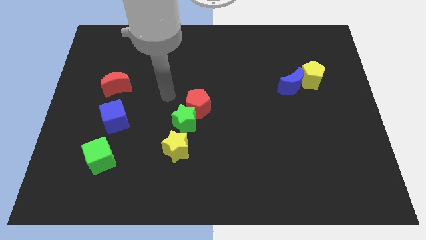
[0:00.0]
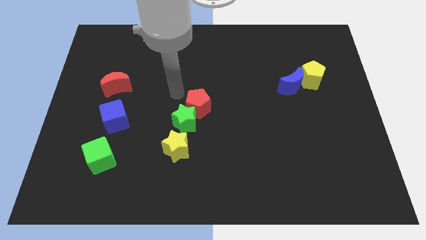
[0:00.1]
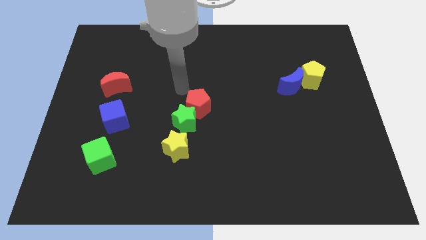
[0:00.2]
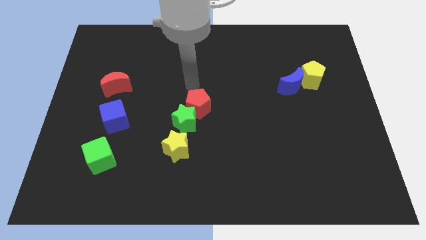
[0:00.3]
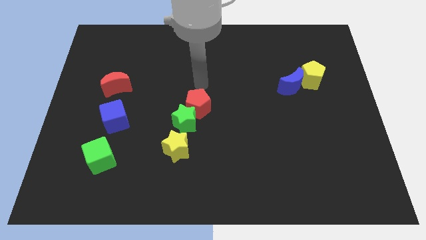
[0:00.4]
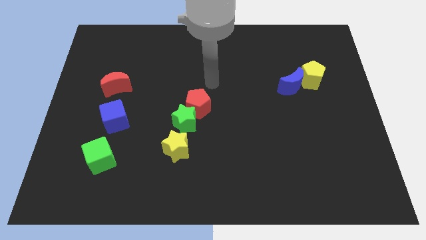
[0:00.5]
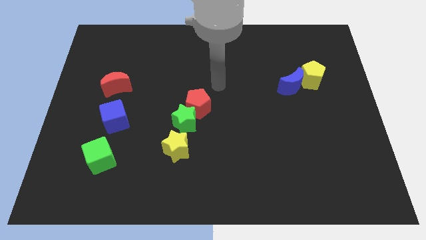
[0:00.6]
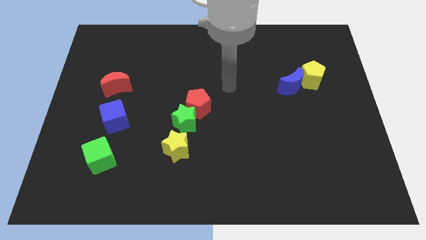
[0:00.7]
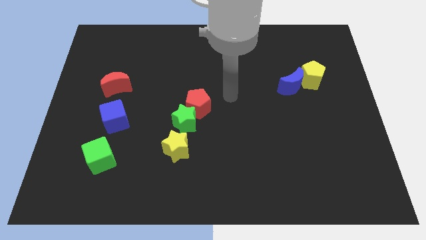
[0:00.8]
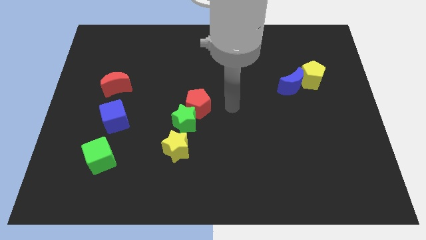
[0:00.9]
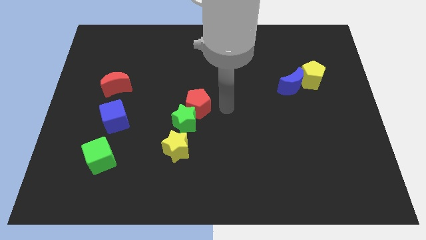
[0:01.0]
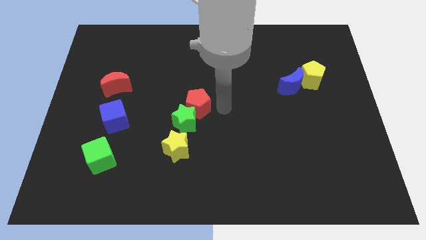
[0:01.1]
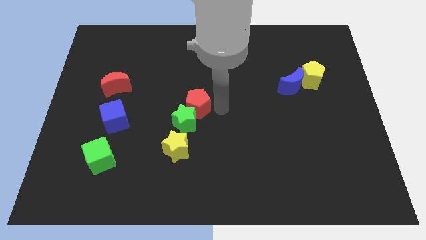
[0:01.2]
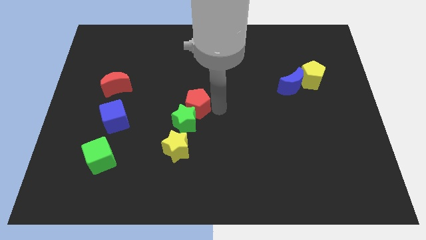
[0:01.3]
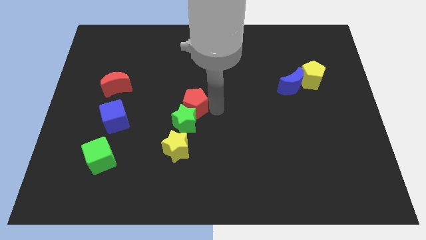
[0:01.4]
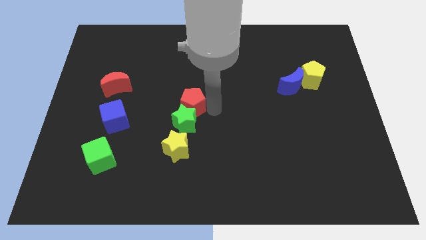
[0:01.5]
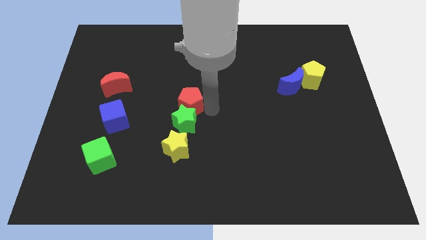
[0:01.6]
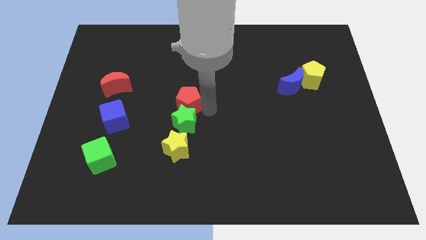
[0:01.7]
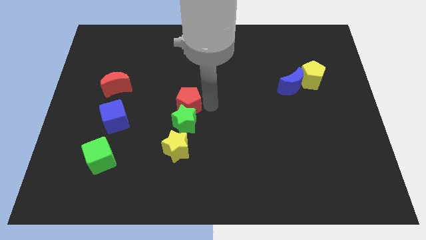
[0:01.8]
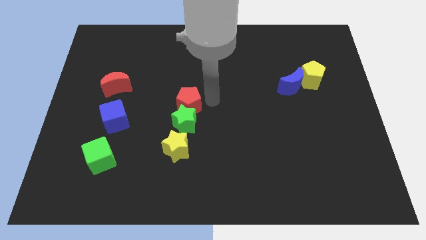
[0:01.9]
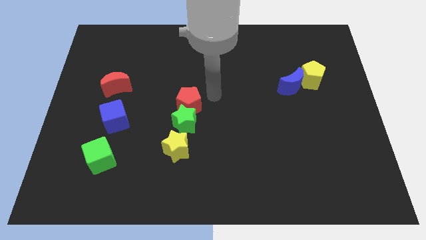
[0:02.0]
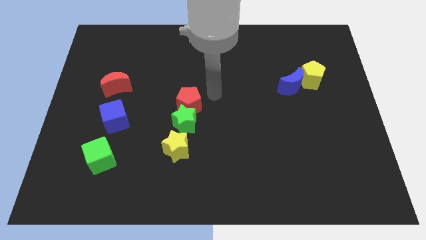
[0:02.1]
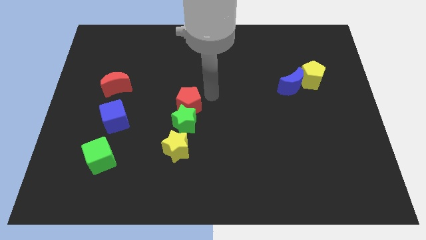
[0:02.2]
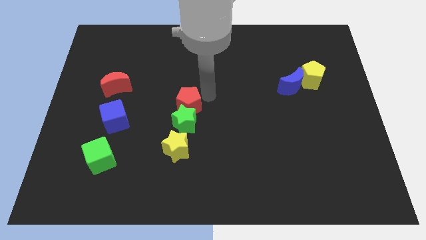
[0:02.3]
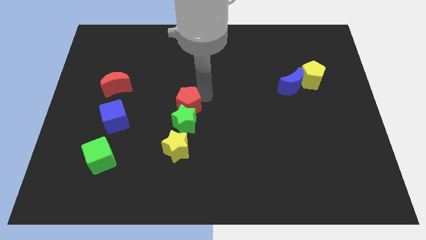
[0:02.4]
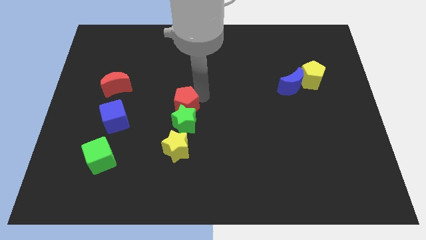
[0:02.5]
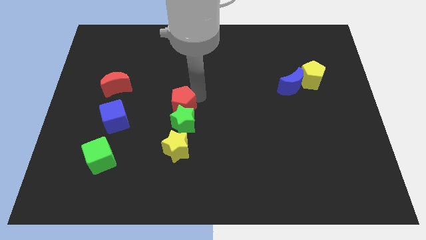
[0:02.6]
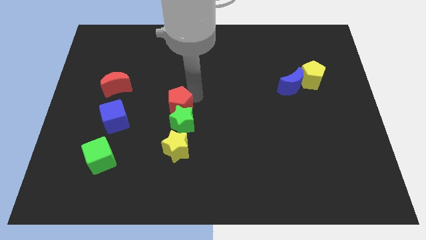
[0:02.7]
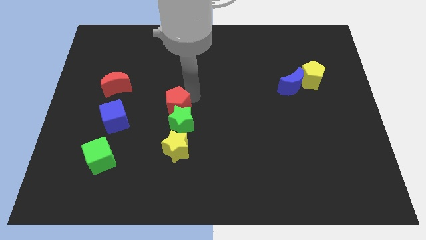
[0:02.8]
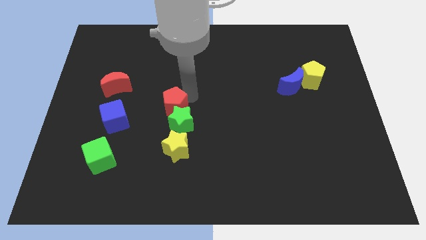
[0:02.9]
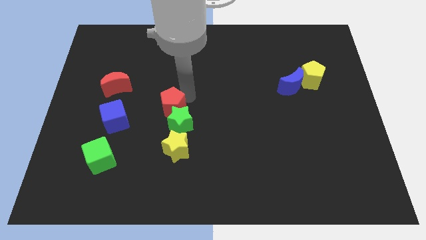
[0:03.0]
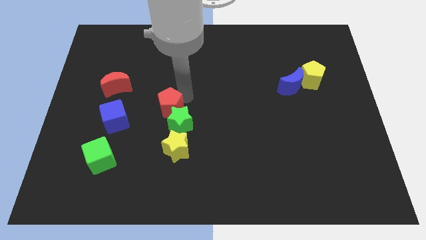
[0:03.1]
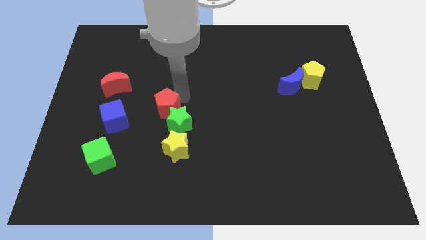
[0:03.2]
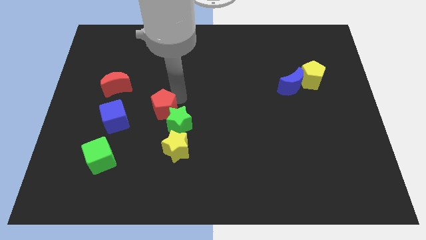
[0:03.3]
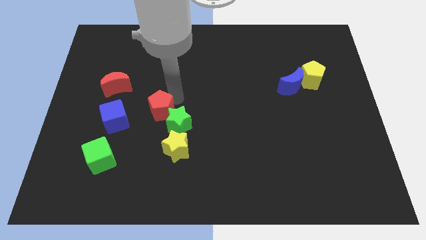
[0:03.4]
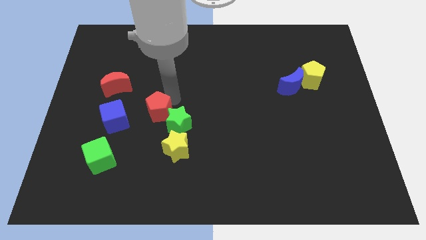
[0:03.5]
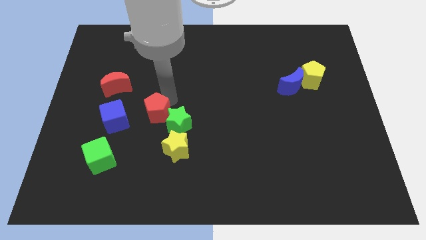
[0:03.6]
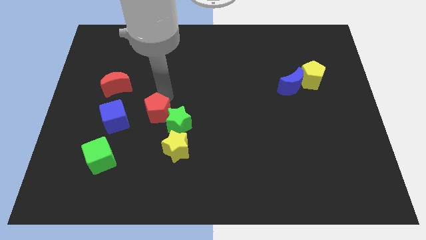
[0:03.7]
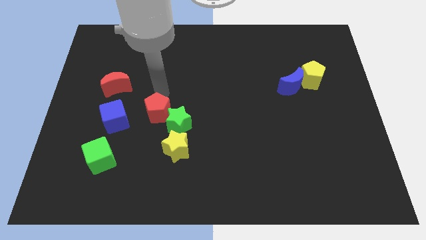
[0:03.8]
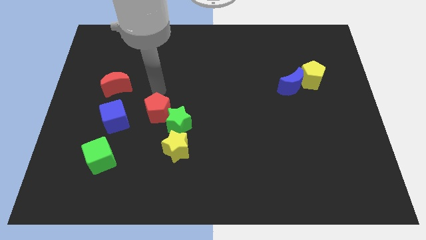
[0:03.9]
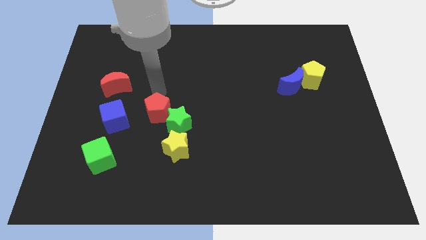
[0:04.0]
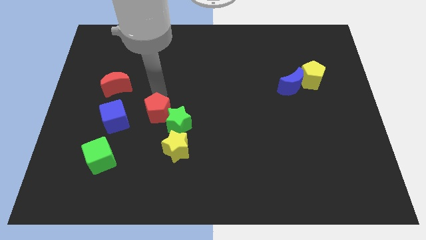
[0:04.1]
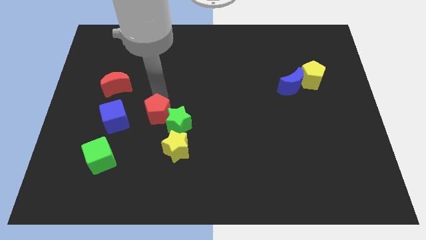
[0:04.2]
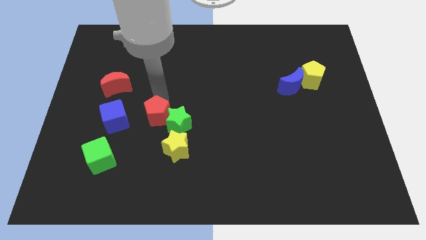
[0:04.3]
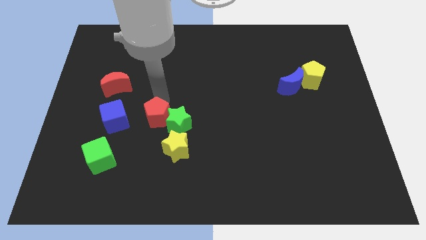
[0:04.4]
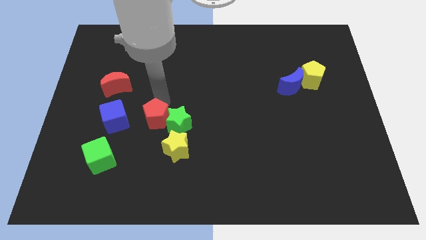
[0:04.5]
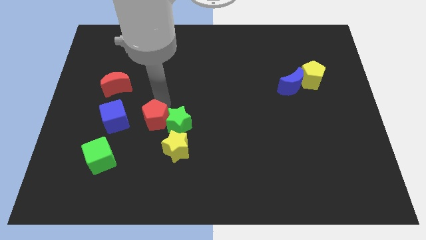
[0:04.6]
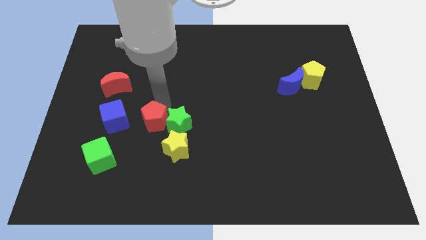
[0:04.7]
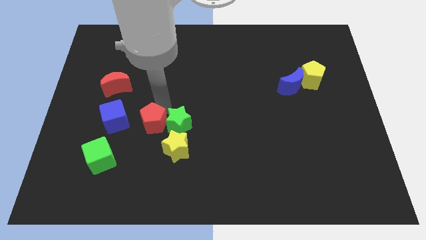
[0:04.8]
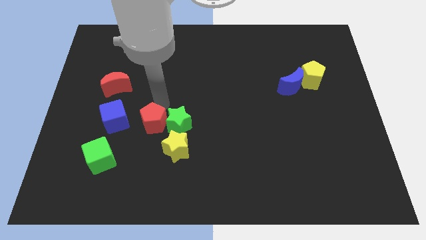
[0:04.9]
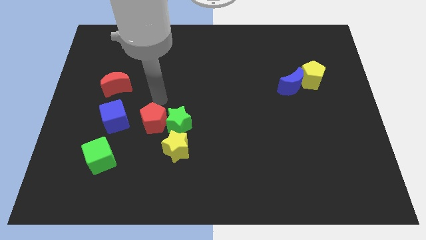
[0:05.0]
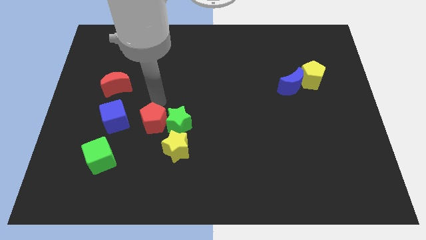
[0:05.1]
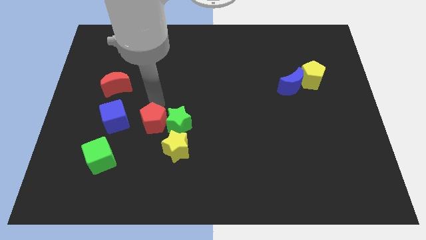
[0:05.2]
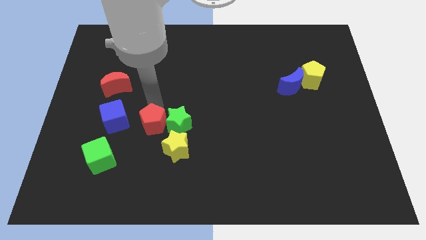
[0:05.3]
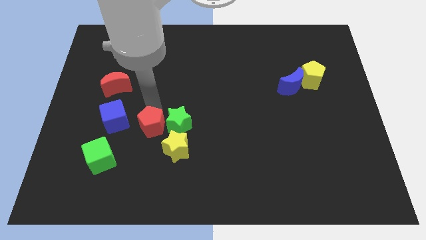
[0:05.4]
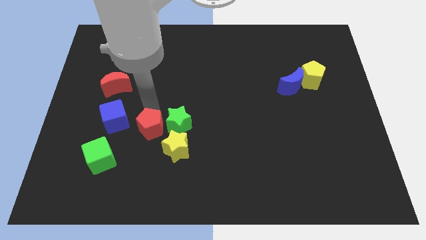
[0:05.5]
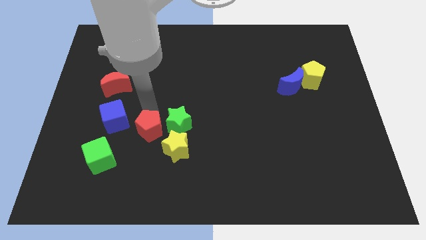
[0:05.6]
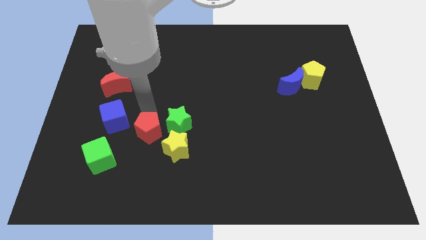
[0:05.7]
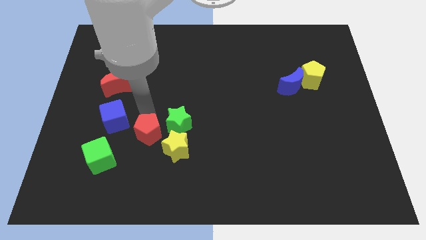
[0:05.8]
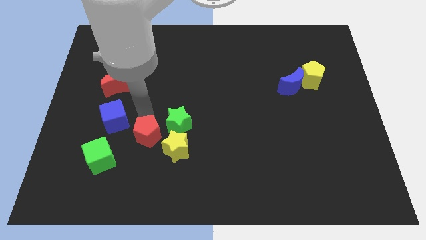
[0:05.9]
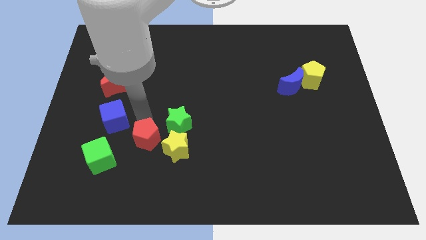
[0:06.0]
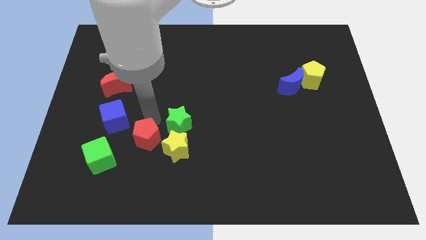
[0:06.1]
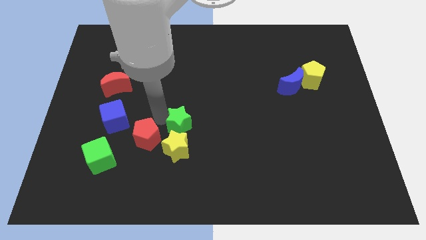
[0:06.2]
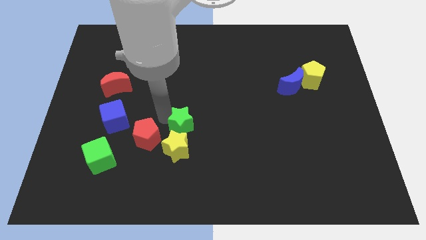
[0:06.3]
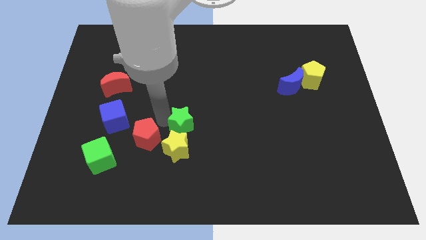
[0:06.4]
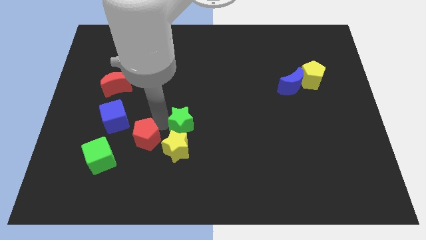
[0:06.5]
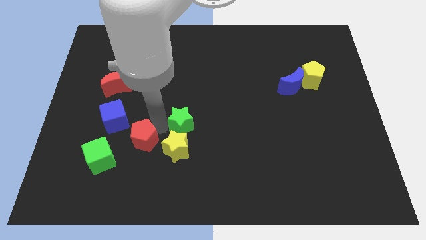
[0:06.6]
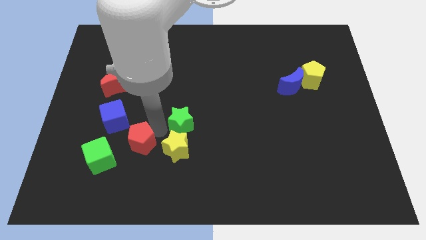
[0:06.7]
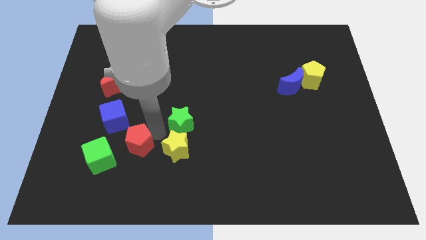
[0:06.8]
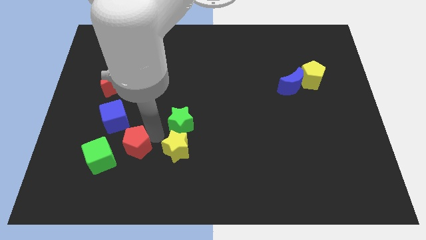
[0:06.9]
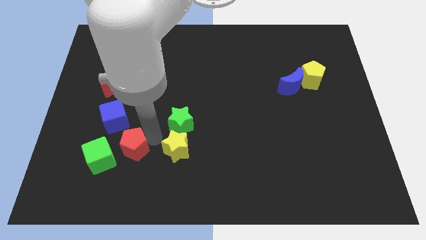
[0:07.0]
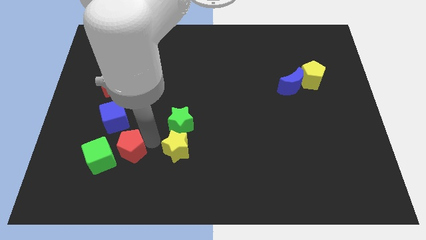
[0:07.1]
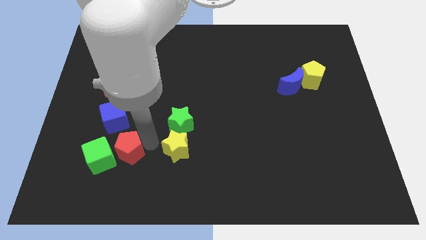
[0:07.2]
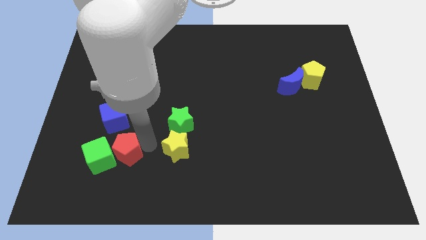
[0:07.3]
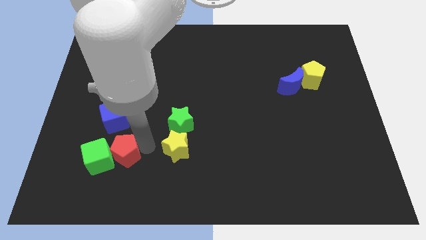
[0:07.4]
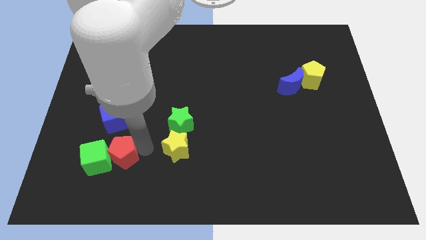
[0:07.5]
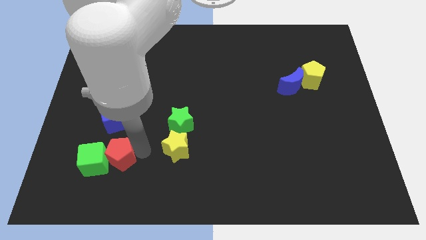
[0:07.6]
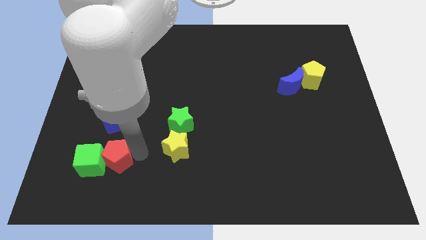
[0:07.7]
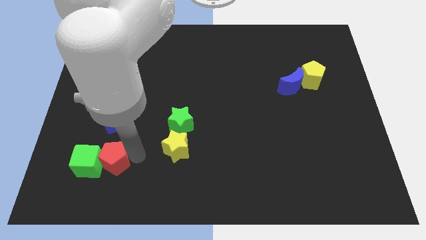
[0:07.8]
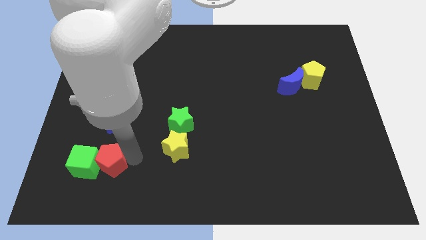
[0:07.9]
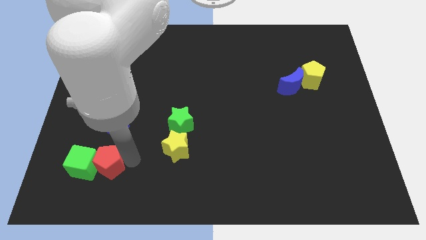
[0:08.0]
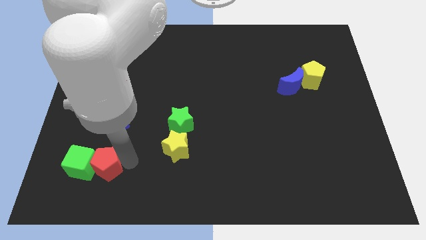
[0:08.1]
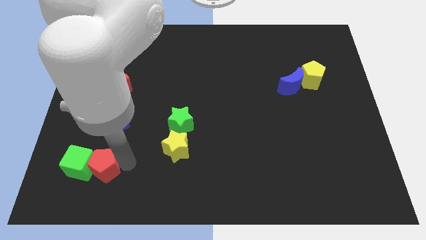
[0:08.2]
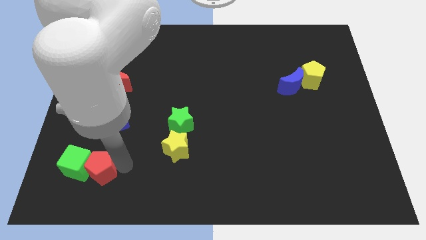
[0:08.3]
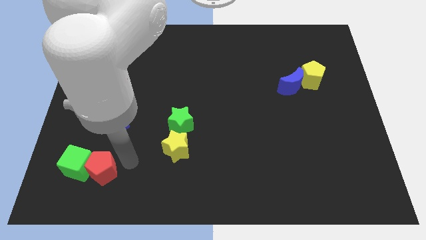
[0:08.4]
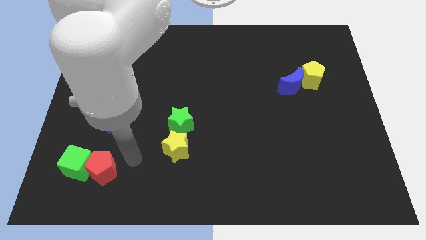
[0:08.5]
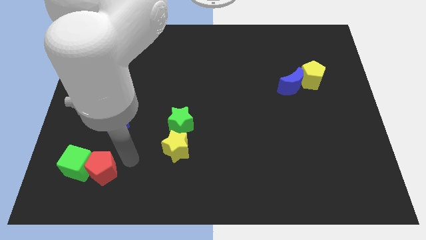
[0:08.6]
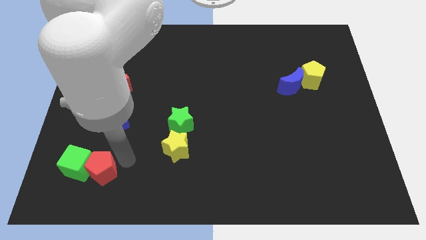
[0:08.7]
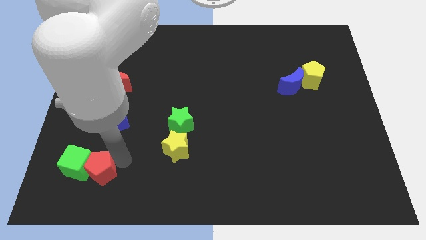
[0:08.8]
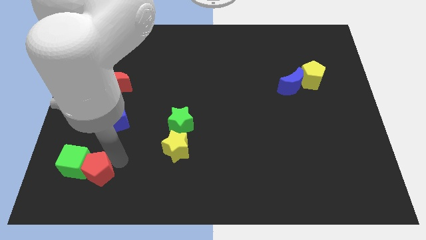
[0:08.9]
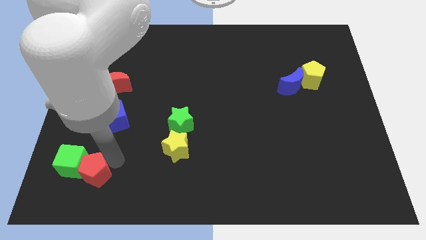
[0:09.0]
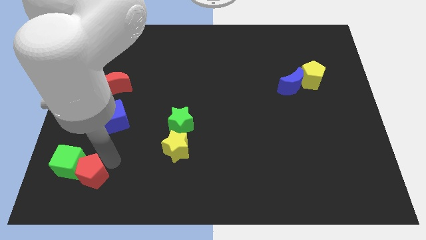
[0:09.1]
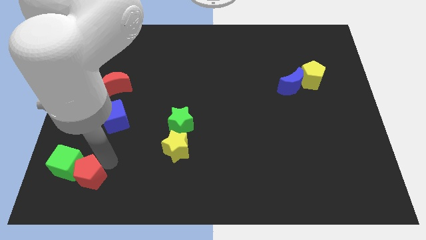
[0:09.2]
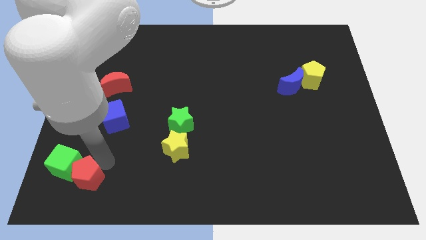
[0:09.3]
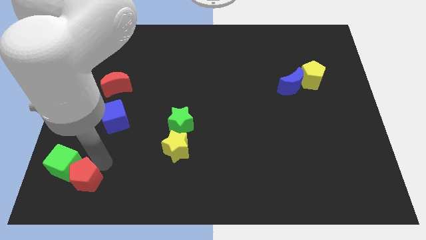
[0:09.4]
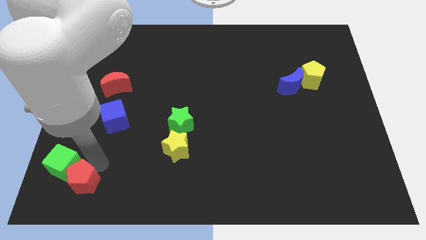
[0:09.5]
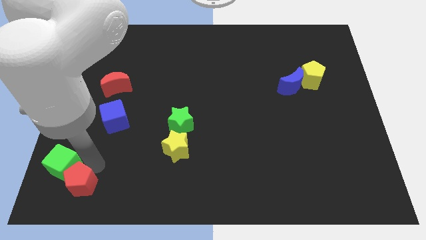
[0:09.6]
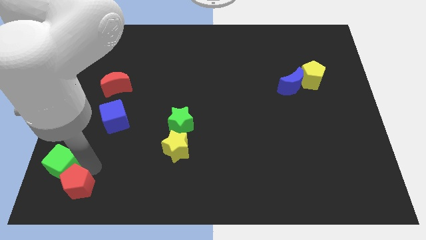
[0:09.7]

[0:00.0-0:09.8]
move the red pentagon to the bottom left corner
